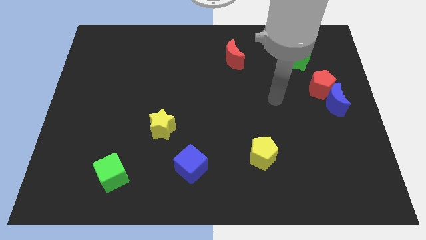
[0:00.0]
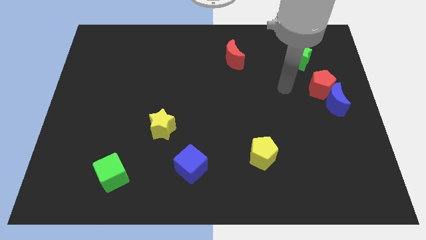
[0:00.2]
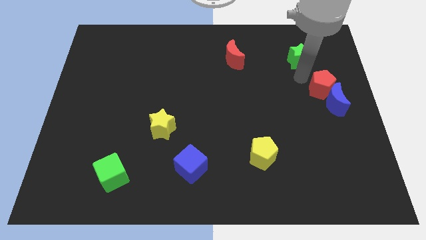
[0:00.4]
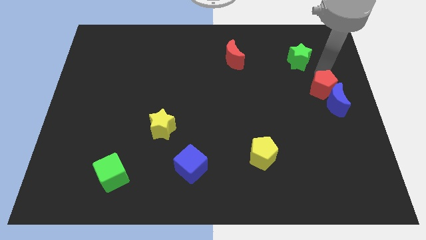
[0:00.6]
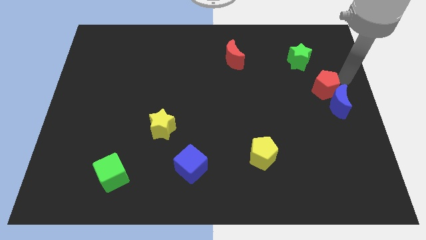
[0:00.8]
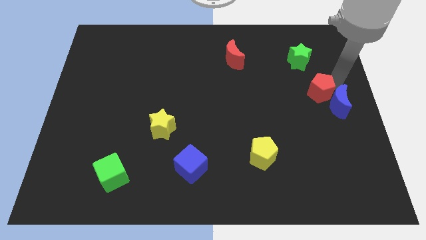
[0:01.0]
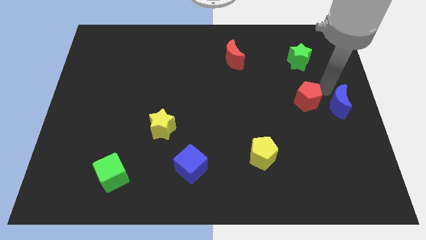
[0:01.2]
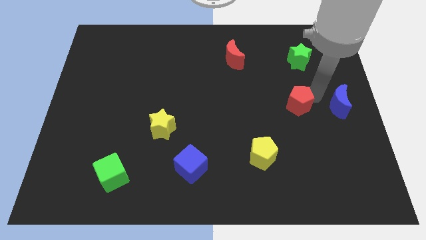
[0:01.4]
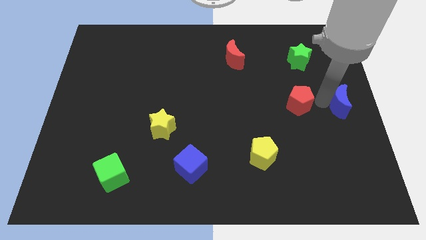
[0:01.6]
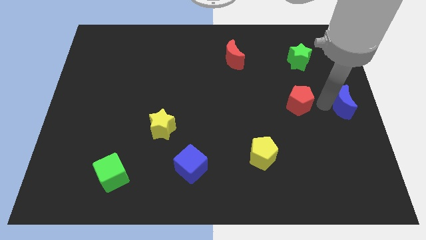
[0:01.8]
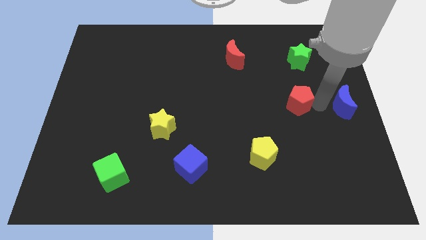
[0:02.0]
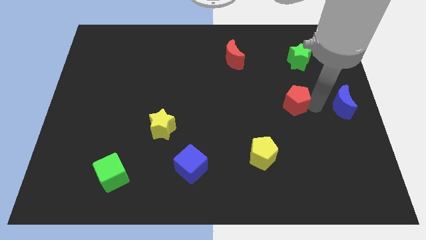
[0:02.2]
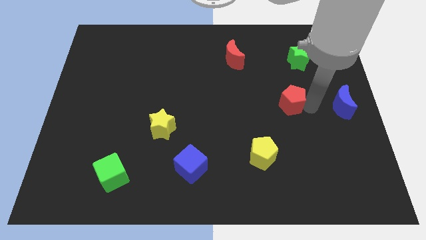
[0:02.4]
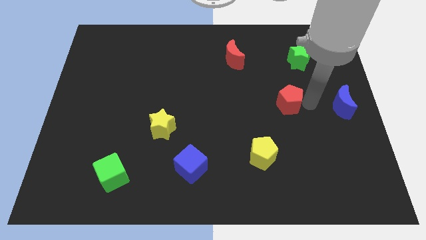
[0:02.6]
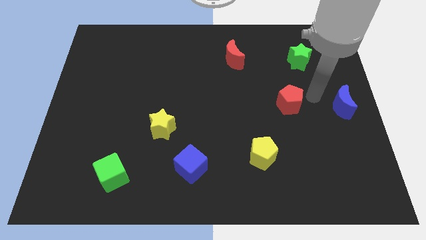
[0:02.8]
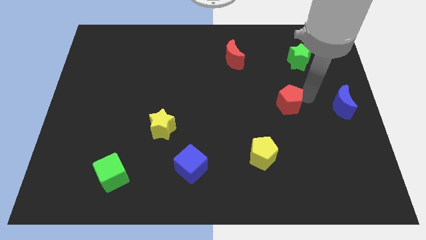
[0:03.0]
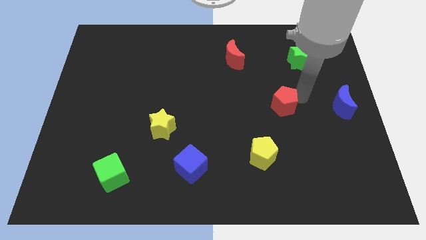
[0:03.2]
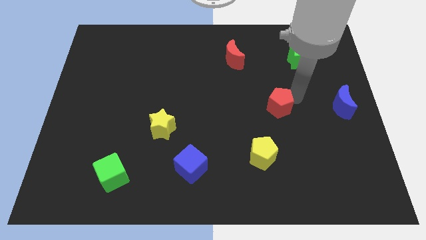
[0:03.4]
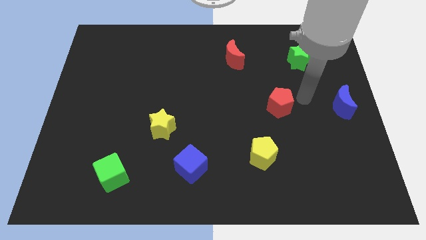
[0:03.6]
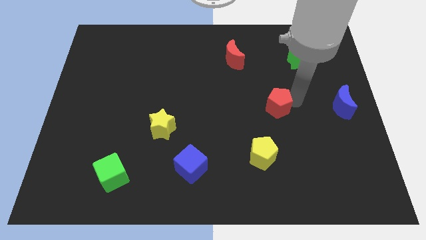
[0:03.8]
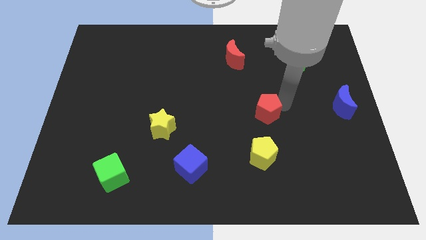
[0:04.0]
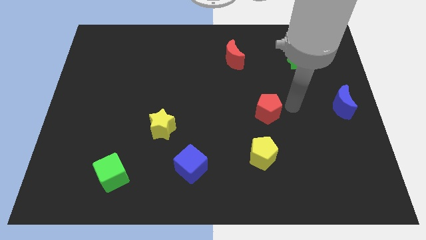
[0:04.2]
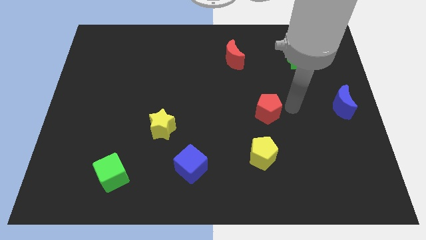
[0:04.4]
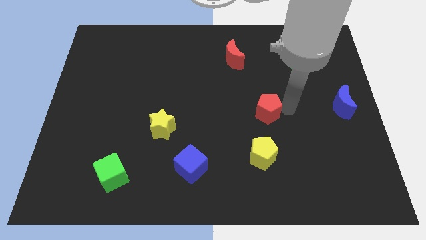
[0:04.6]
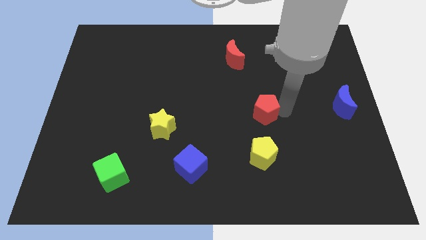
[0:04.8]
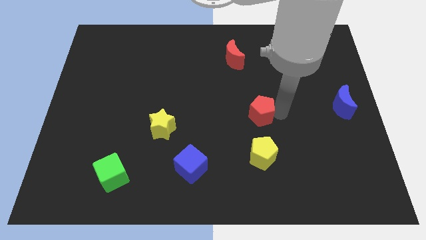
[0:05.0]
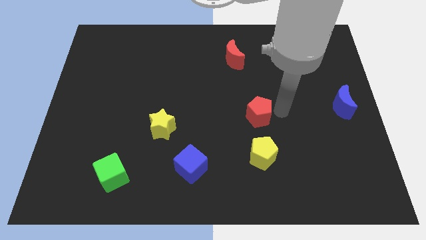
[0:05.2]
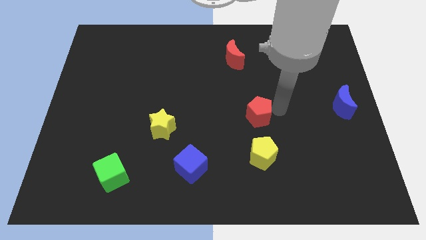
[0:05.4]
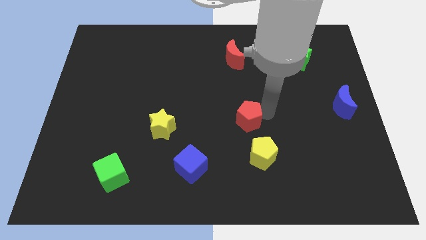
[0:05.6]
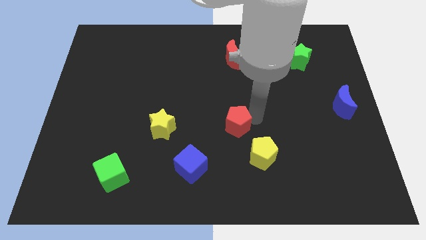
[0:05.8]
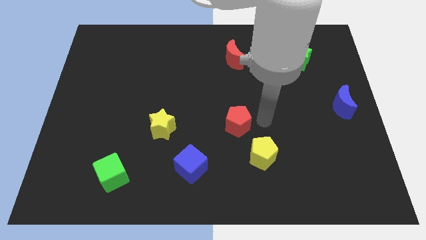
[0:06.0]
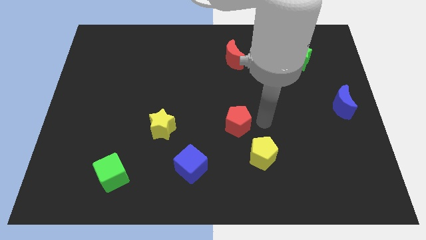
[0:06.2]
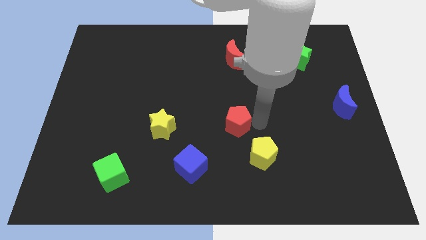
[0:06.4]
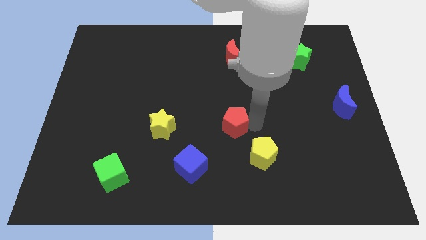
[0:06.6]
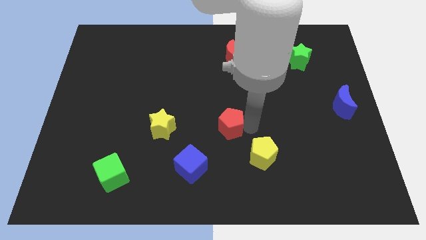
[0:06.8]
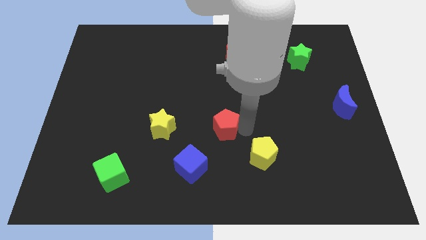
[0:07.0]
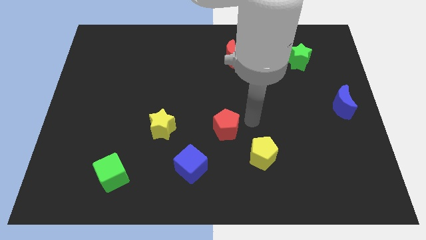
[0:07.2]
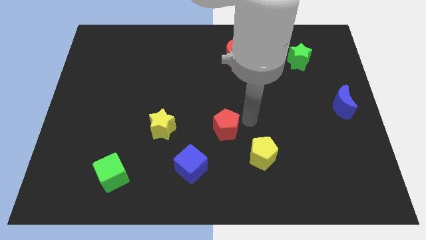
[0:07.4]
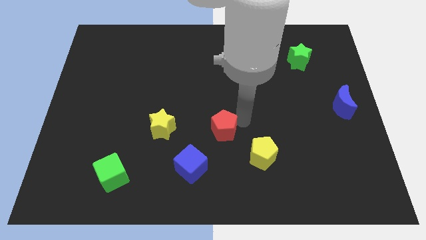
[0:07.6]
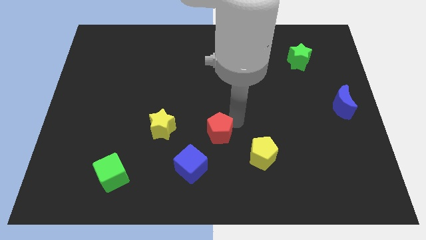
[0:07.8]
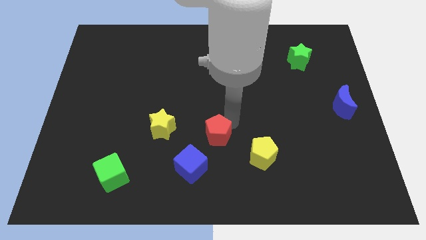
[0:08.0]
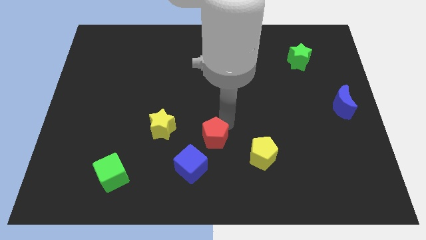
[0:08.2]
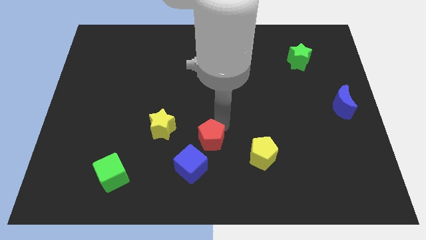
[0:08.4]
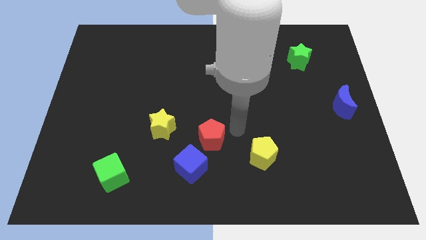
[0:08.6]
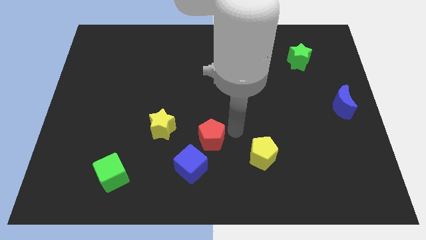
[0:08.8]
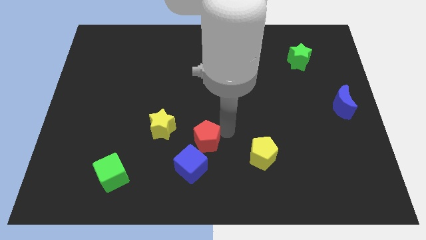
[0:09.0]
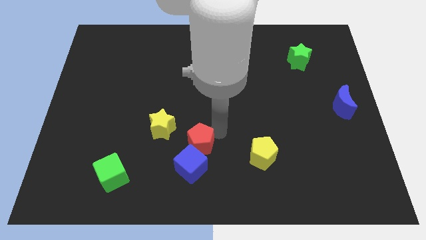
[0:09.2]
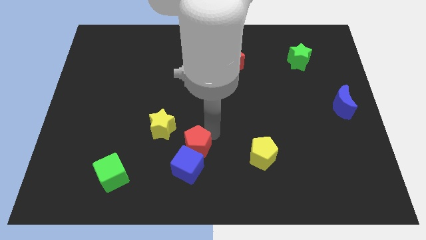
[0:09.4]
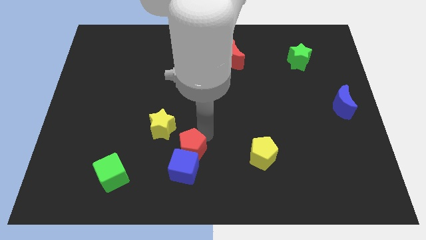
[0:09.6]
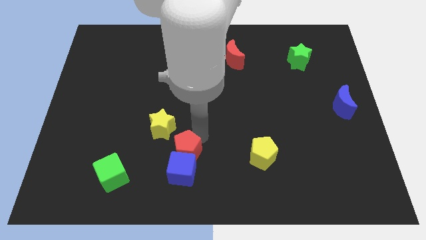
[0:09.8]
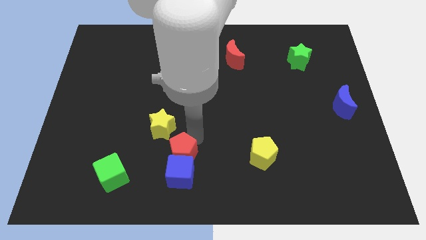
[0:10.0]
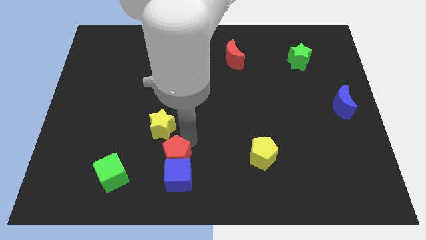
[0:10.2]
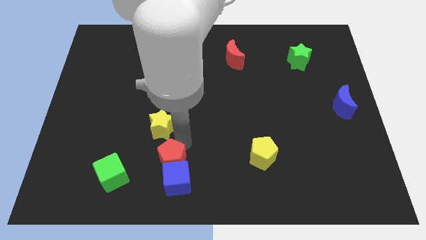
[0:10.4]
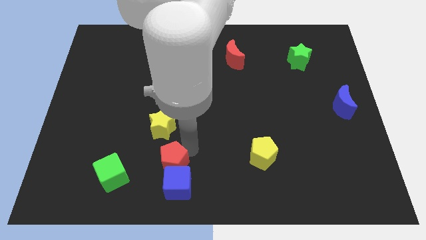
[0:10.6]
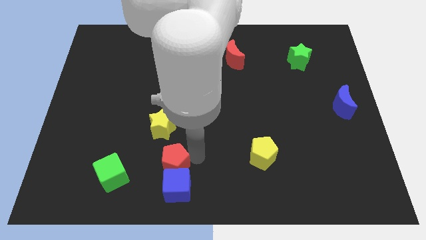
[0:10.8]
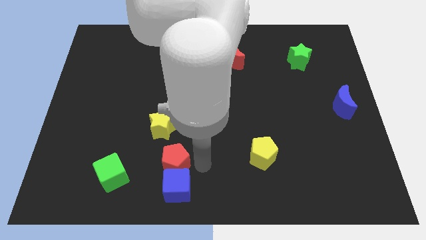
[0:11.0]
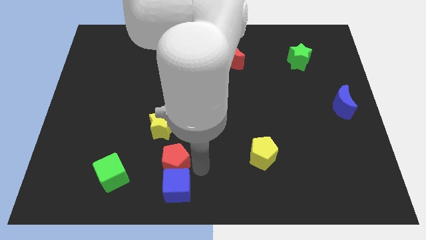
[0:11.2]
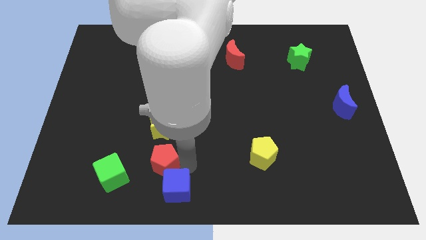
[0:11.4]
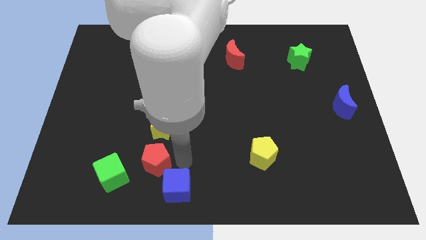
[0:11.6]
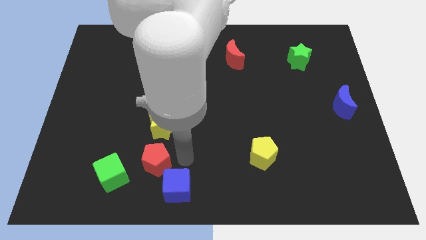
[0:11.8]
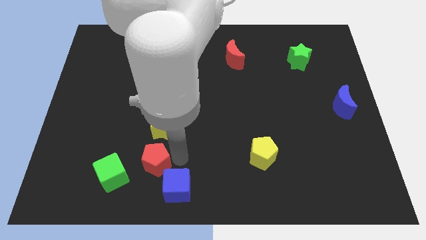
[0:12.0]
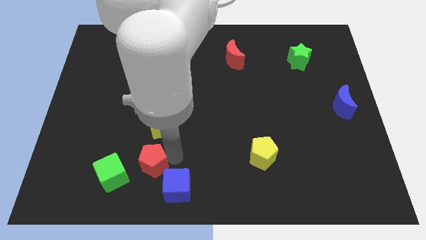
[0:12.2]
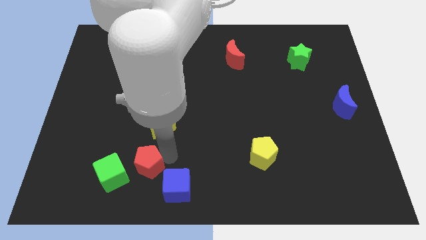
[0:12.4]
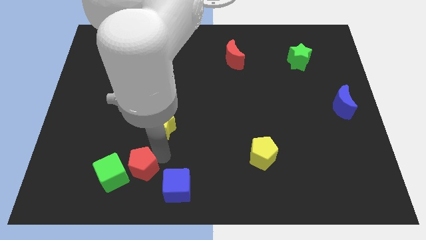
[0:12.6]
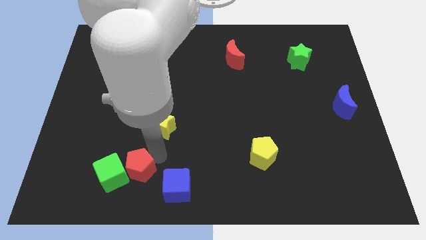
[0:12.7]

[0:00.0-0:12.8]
push the red pentagon next to the green cube
